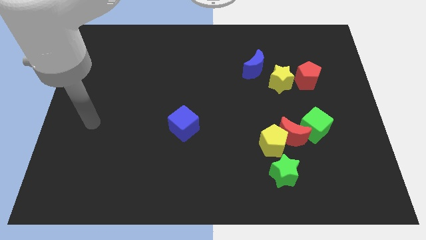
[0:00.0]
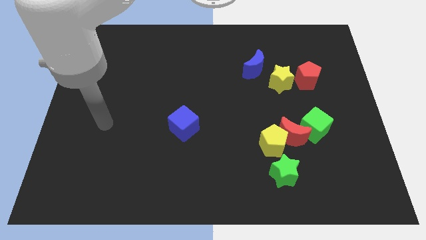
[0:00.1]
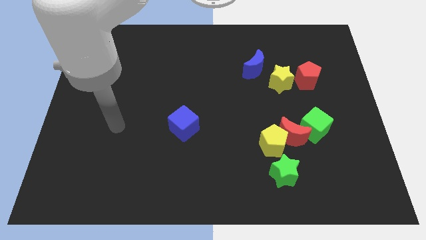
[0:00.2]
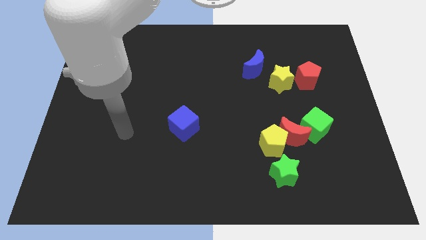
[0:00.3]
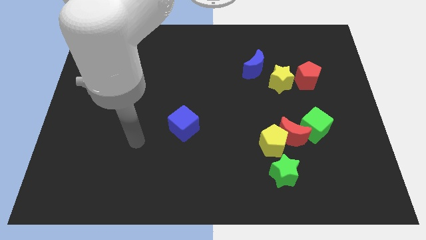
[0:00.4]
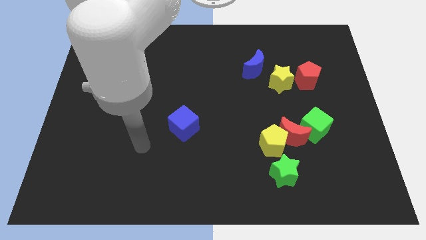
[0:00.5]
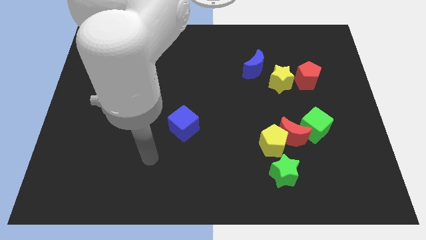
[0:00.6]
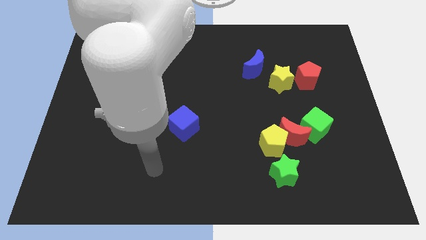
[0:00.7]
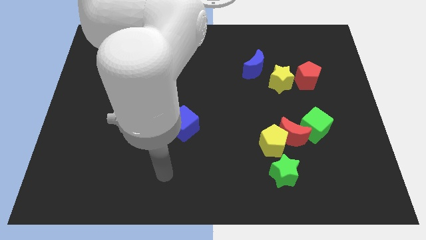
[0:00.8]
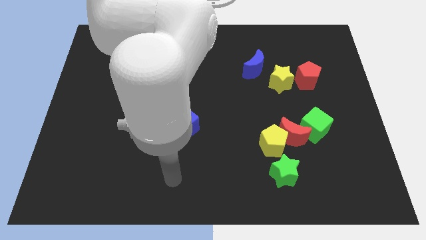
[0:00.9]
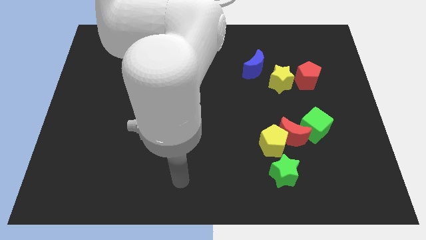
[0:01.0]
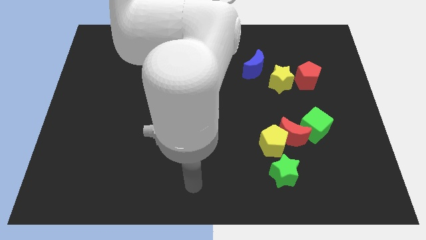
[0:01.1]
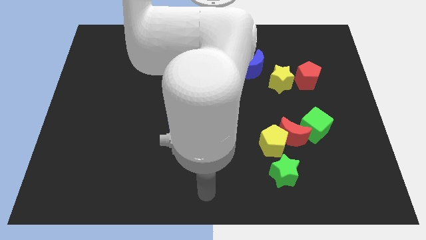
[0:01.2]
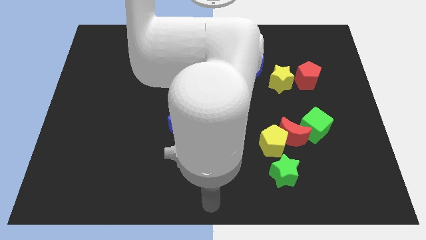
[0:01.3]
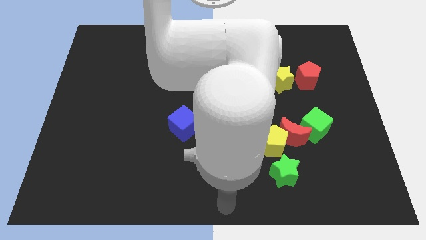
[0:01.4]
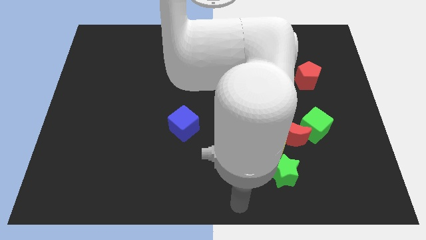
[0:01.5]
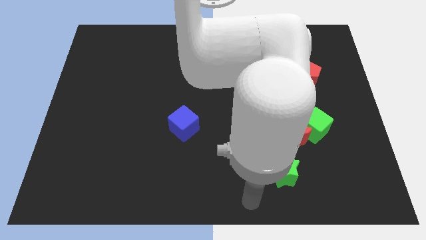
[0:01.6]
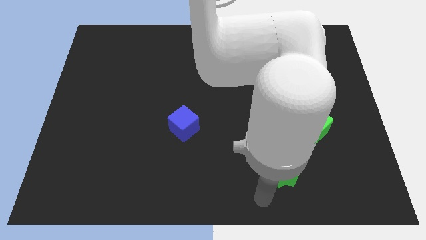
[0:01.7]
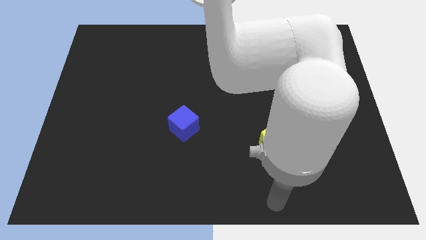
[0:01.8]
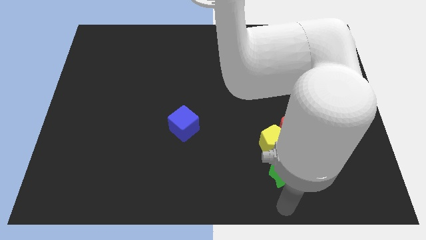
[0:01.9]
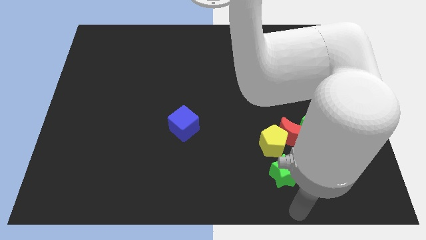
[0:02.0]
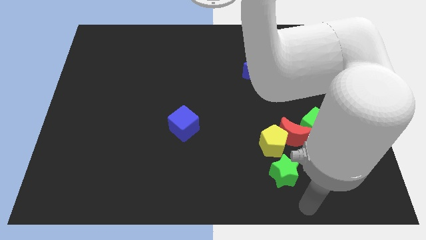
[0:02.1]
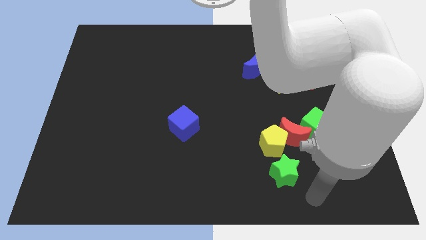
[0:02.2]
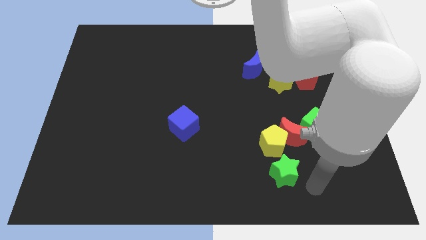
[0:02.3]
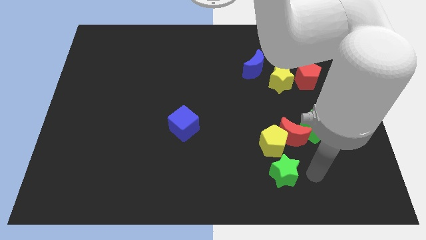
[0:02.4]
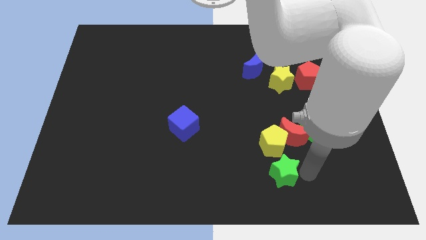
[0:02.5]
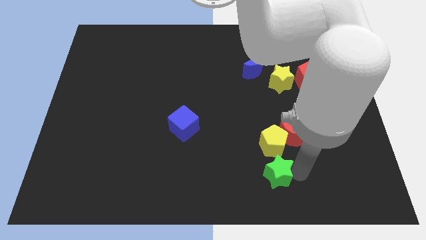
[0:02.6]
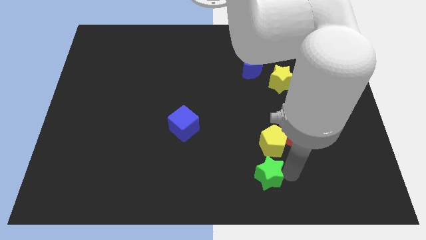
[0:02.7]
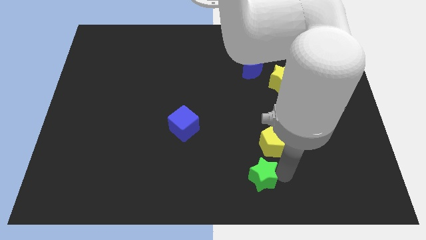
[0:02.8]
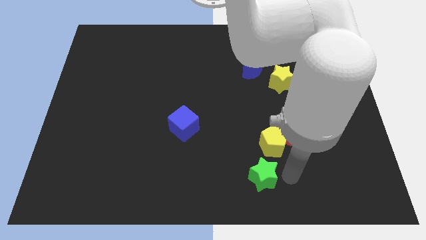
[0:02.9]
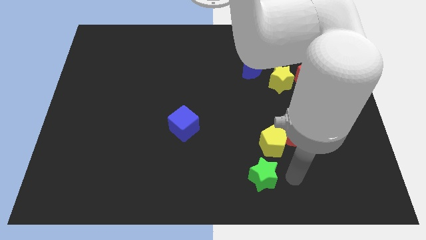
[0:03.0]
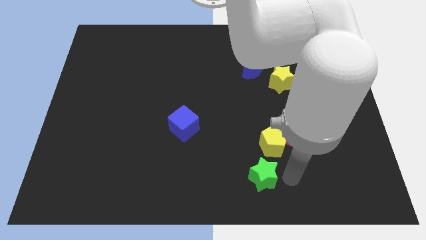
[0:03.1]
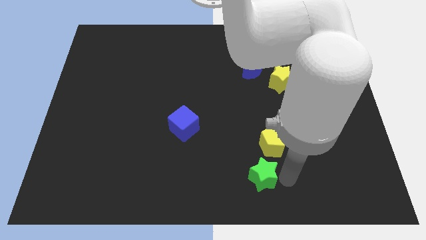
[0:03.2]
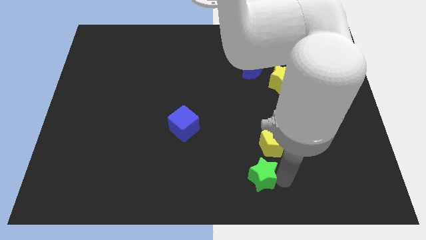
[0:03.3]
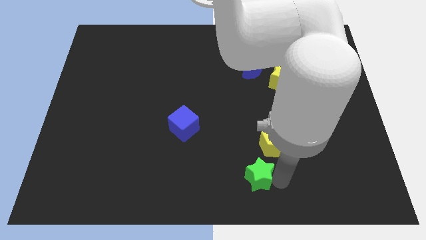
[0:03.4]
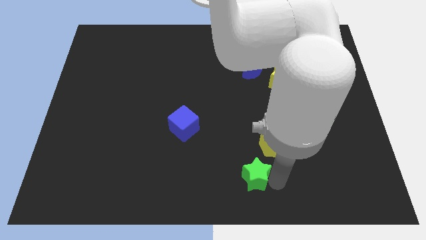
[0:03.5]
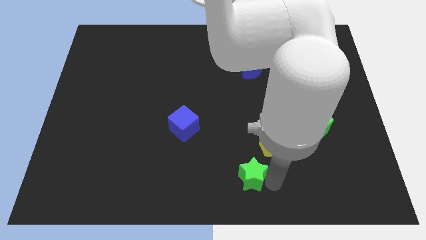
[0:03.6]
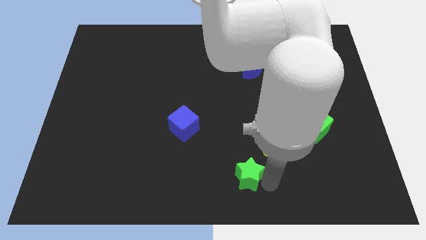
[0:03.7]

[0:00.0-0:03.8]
push the green star left somewhat

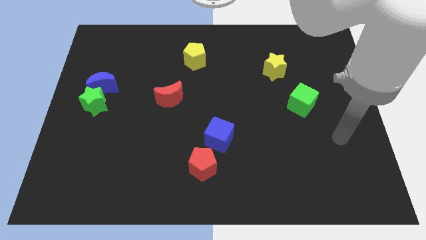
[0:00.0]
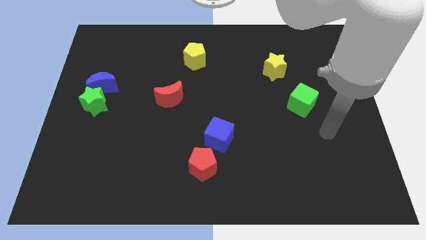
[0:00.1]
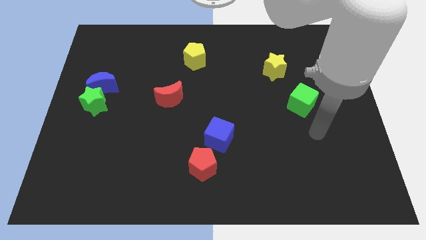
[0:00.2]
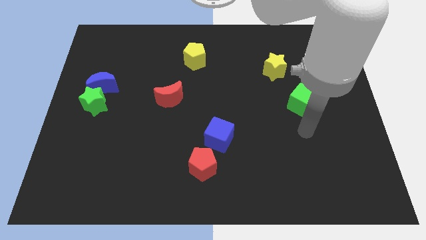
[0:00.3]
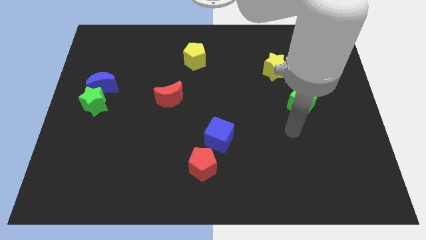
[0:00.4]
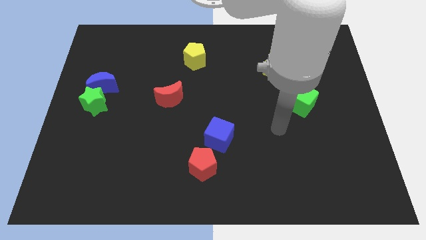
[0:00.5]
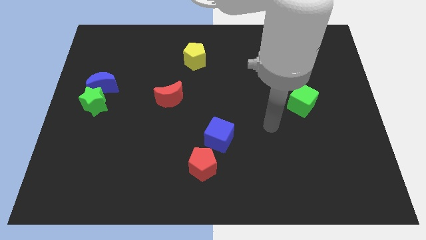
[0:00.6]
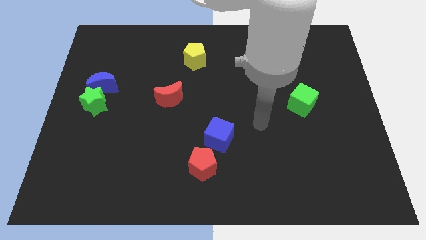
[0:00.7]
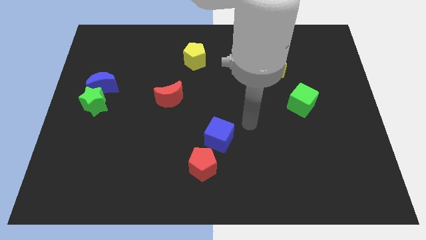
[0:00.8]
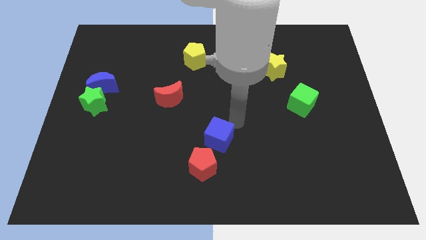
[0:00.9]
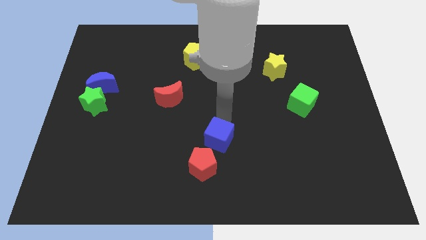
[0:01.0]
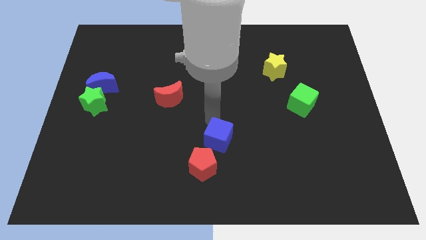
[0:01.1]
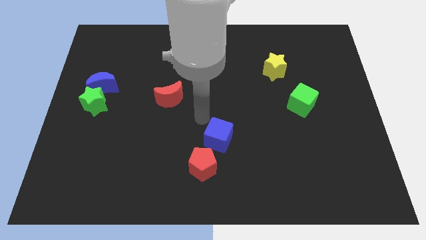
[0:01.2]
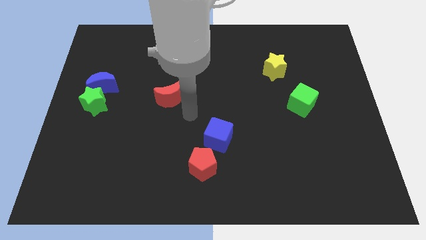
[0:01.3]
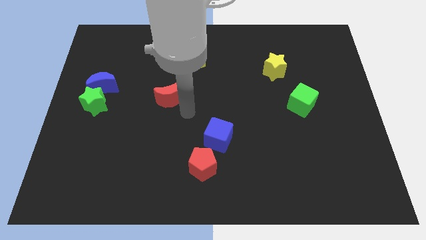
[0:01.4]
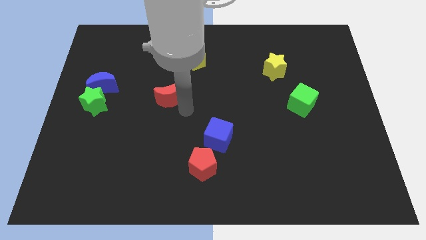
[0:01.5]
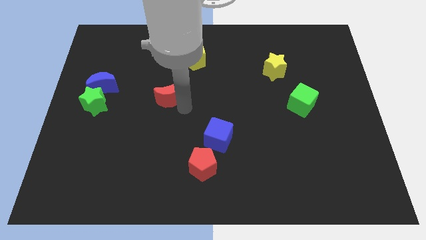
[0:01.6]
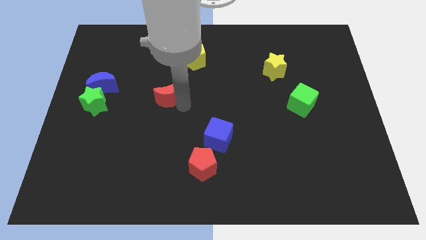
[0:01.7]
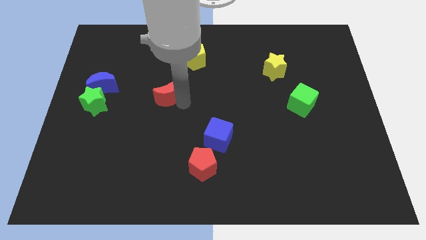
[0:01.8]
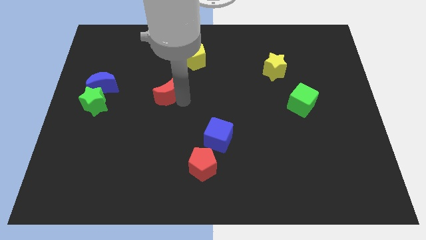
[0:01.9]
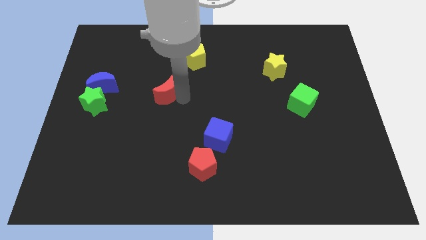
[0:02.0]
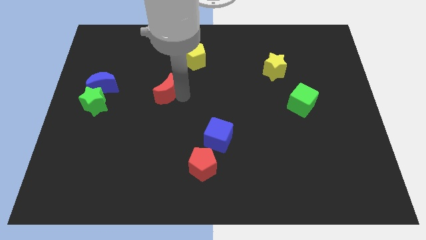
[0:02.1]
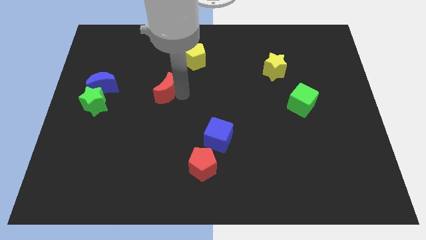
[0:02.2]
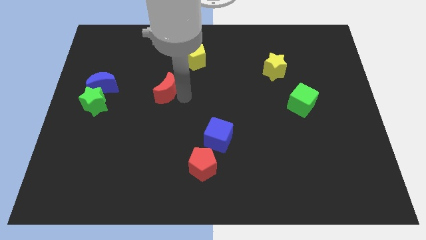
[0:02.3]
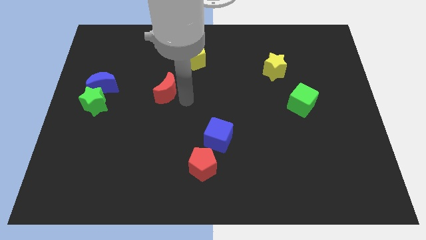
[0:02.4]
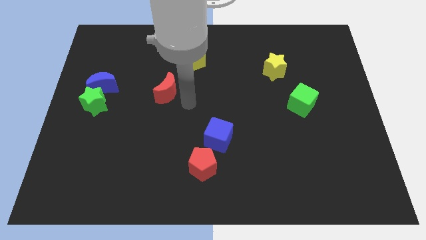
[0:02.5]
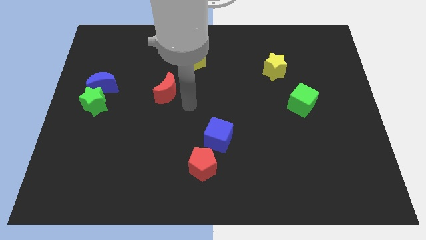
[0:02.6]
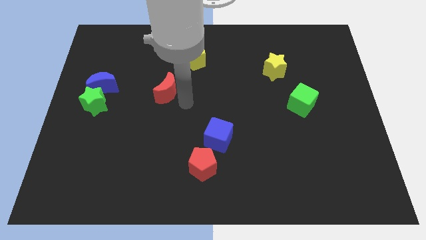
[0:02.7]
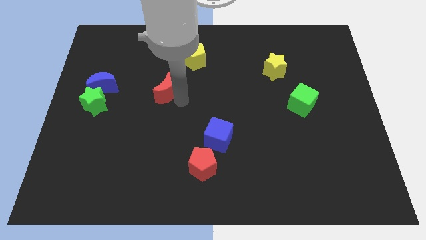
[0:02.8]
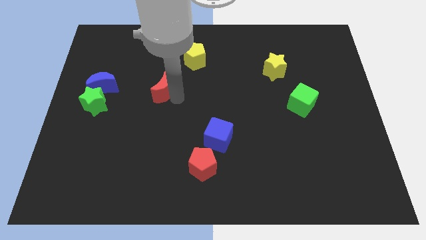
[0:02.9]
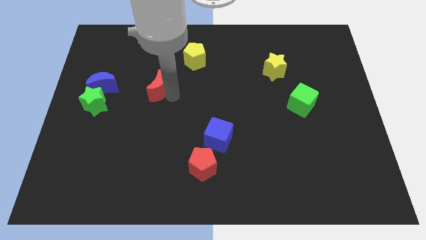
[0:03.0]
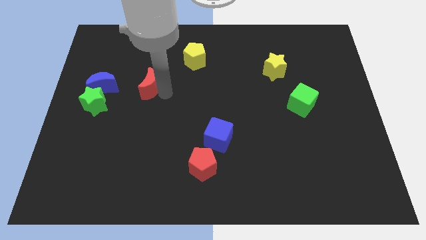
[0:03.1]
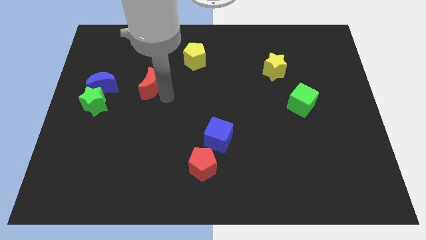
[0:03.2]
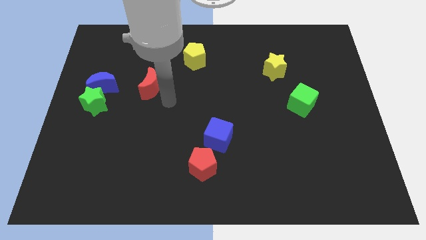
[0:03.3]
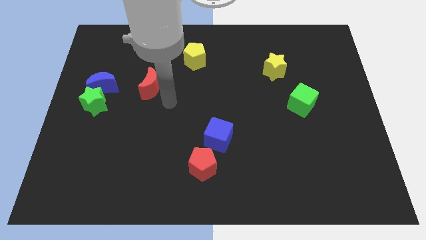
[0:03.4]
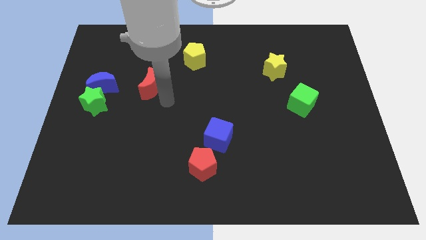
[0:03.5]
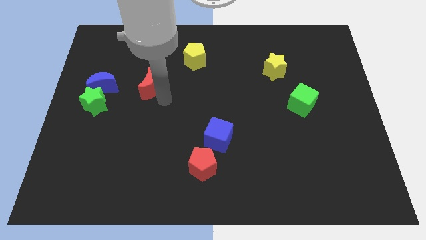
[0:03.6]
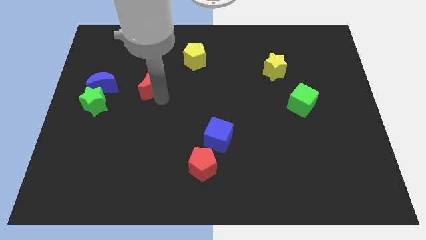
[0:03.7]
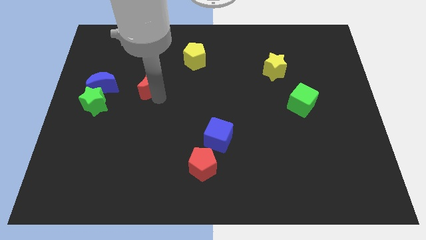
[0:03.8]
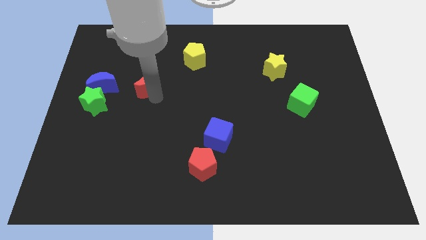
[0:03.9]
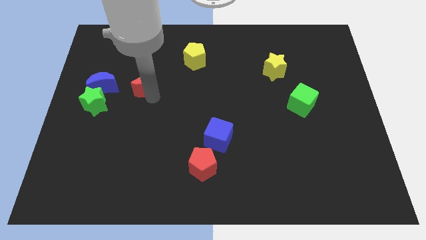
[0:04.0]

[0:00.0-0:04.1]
move the red moon up and to the left diagonally a little bit

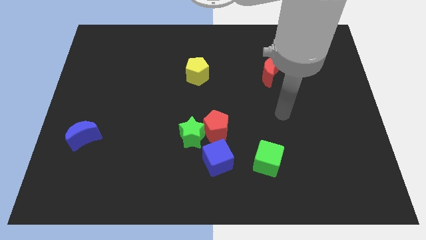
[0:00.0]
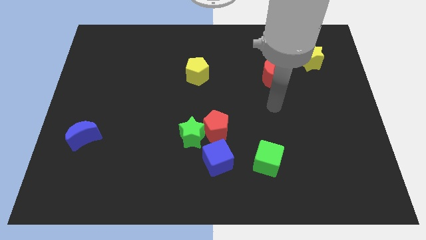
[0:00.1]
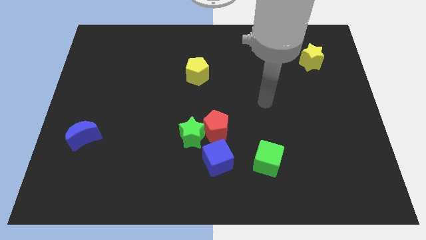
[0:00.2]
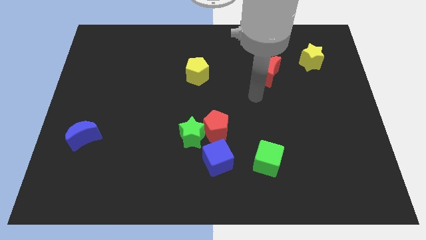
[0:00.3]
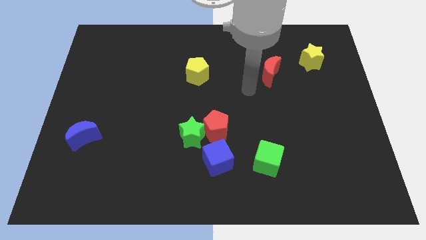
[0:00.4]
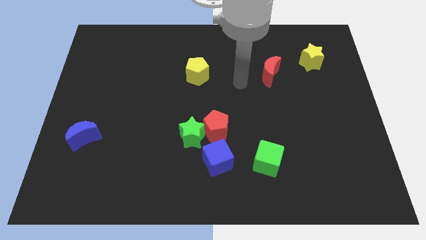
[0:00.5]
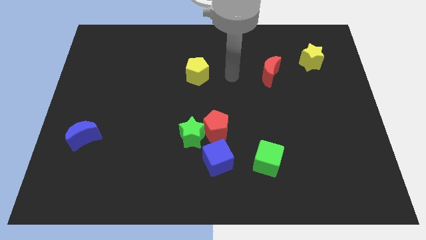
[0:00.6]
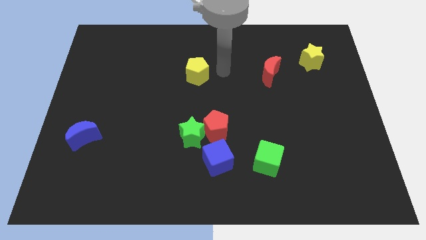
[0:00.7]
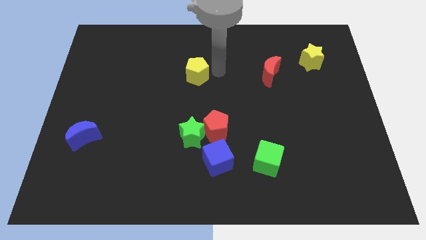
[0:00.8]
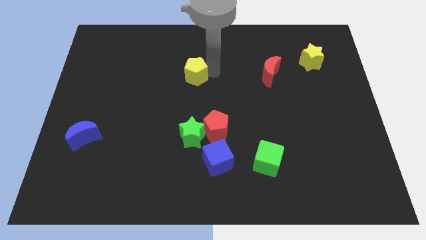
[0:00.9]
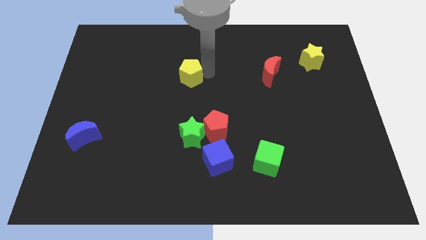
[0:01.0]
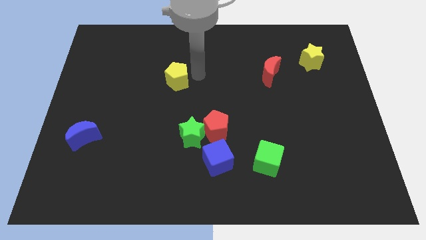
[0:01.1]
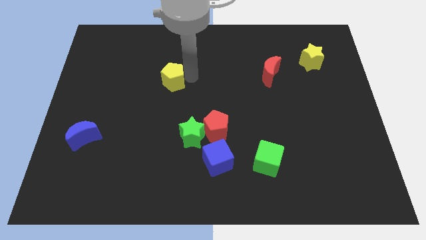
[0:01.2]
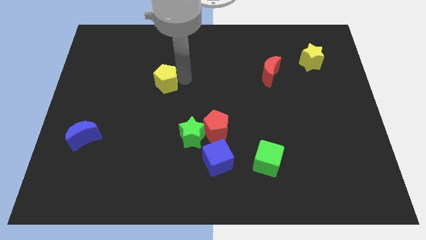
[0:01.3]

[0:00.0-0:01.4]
slide the yellow pentagon left somewhat
